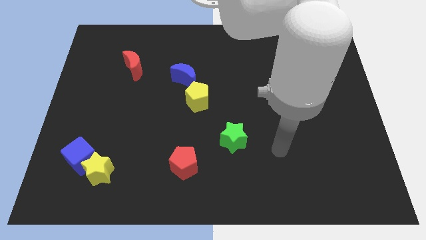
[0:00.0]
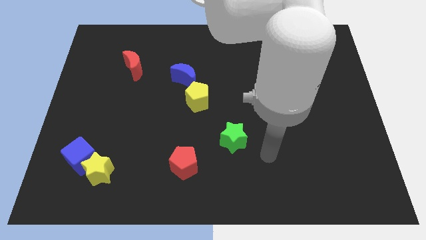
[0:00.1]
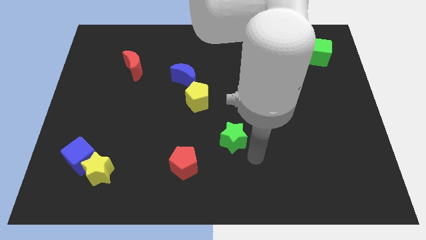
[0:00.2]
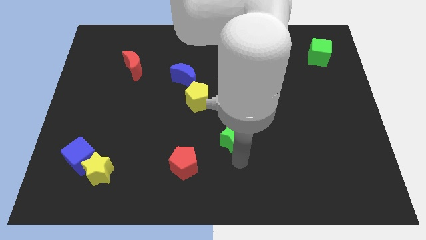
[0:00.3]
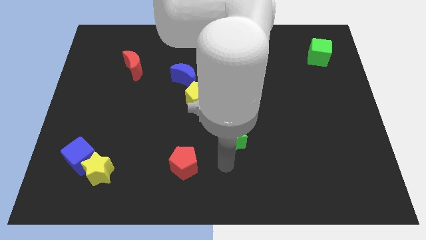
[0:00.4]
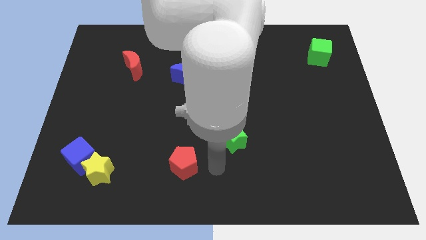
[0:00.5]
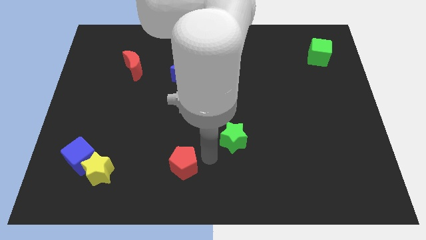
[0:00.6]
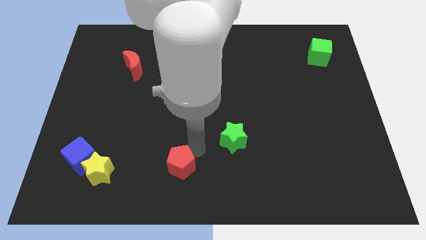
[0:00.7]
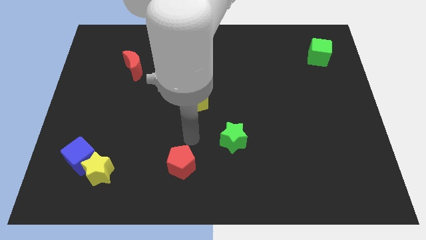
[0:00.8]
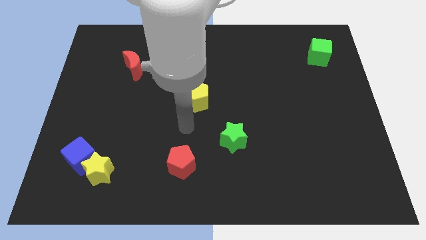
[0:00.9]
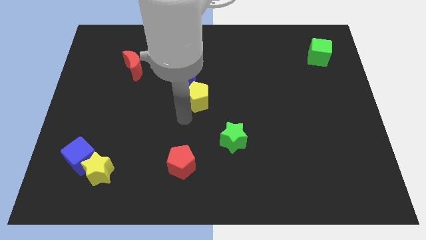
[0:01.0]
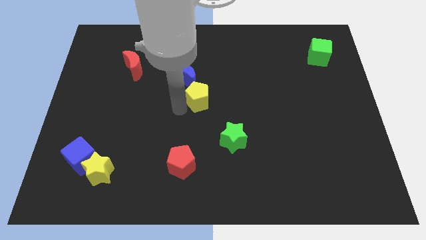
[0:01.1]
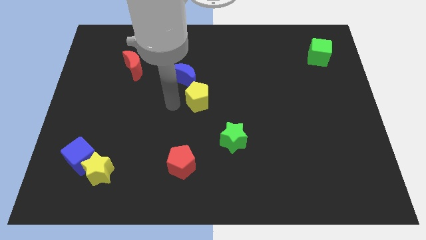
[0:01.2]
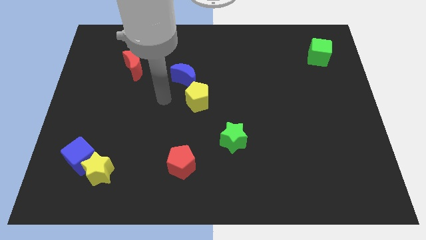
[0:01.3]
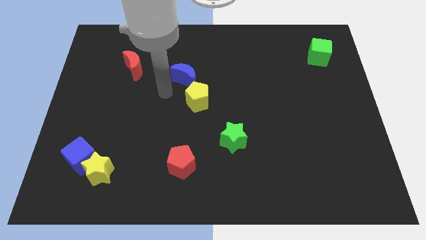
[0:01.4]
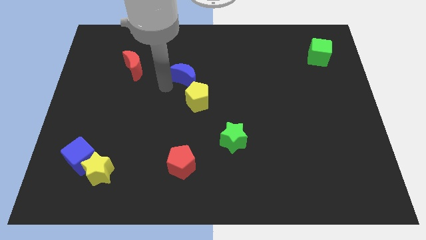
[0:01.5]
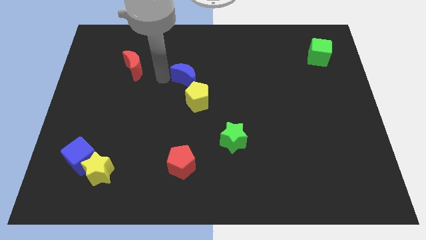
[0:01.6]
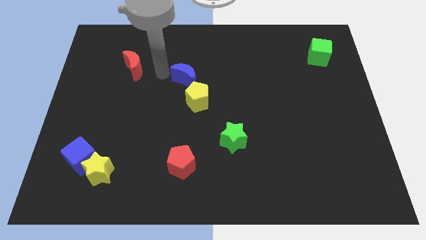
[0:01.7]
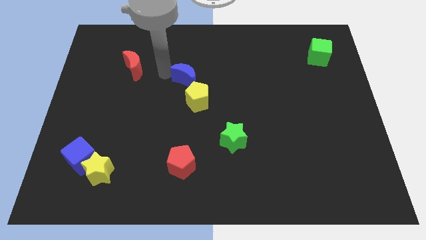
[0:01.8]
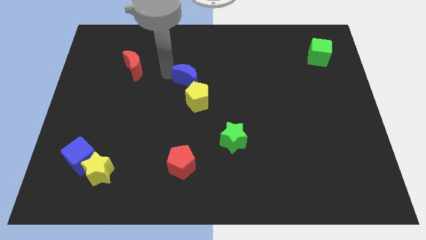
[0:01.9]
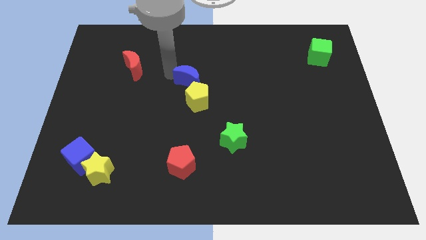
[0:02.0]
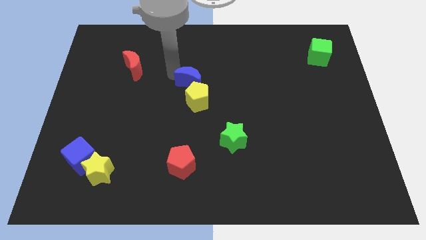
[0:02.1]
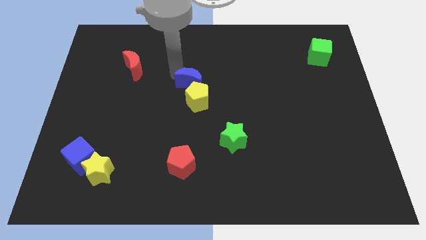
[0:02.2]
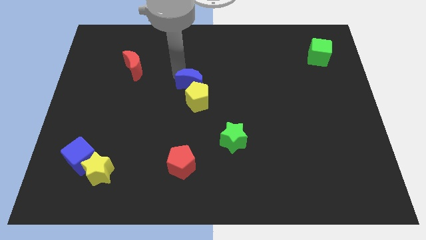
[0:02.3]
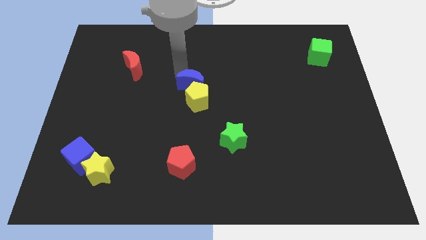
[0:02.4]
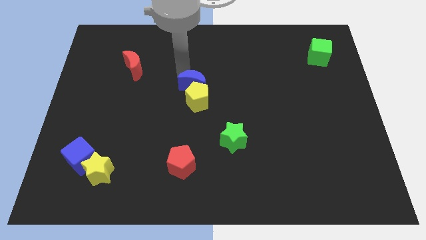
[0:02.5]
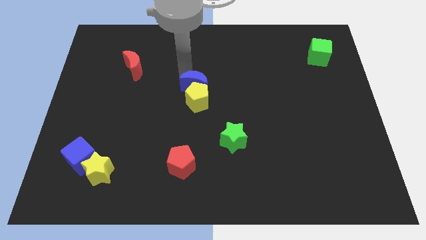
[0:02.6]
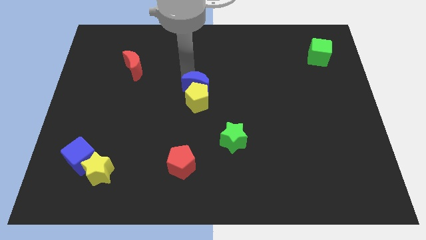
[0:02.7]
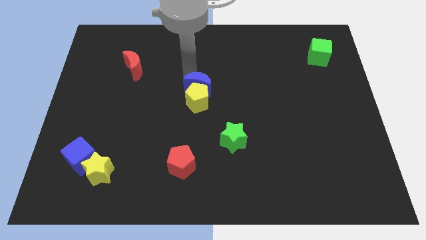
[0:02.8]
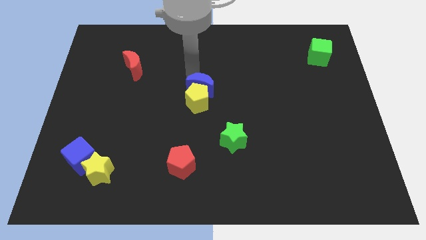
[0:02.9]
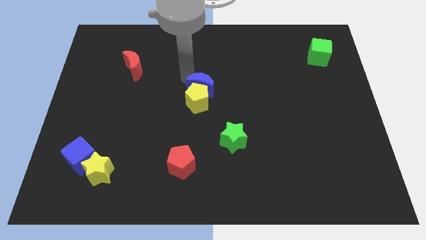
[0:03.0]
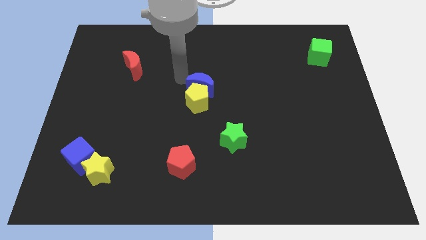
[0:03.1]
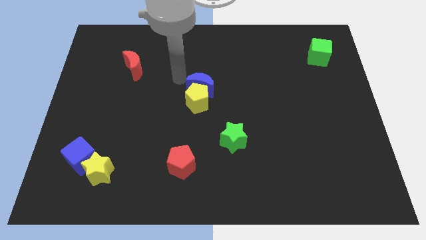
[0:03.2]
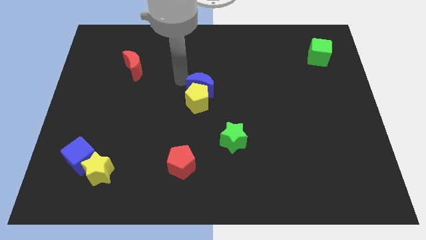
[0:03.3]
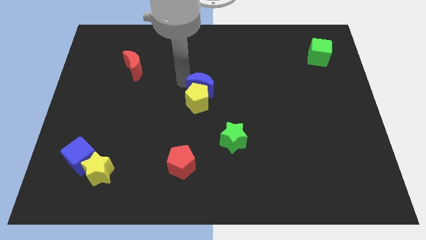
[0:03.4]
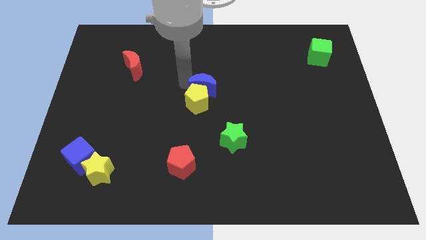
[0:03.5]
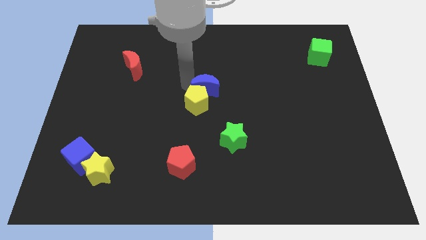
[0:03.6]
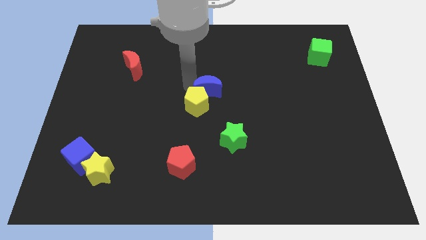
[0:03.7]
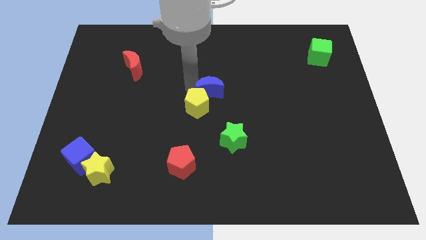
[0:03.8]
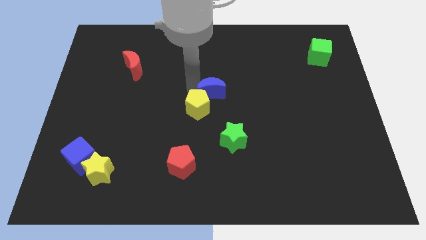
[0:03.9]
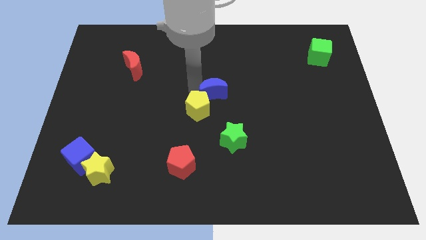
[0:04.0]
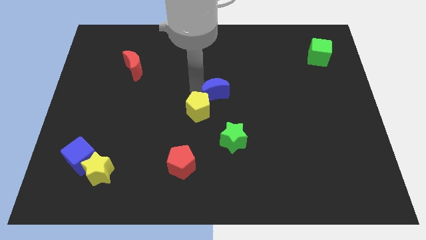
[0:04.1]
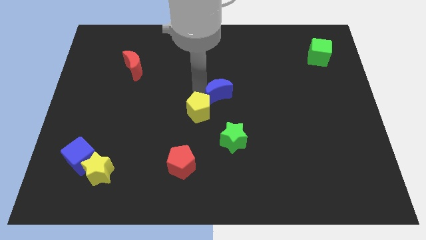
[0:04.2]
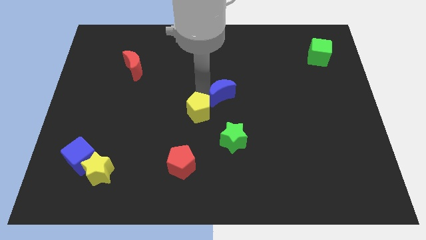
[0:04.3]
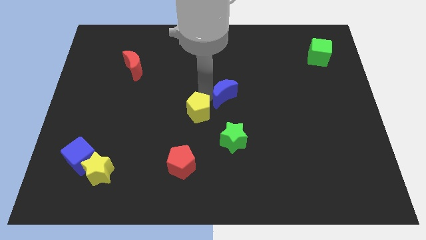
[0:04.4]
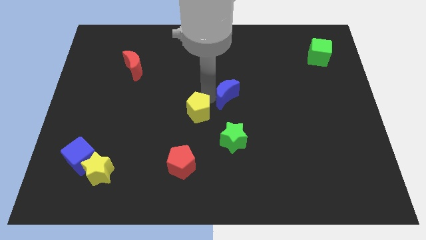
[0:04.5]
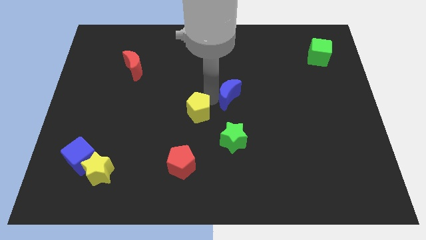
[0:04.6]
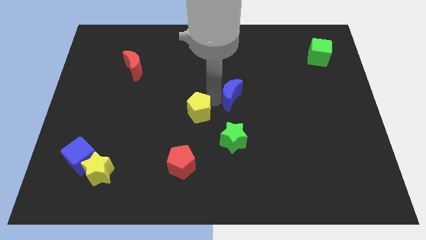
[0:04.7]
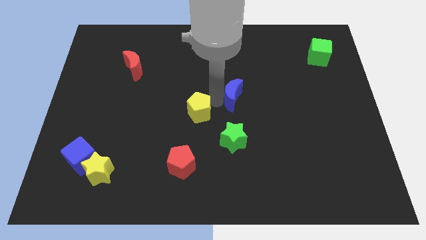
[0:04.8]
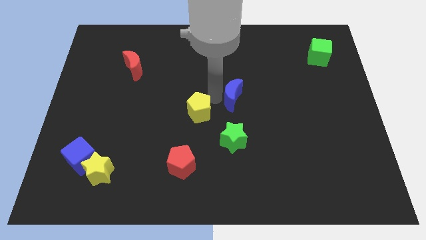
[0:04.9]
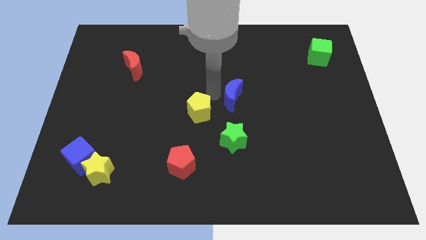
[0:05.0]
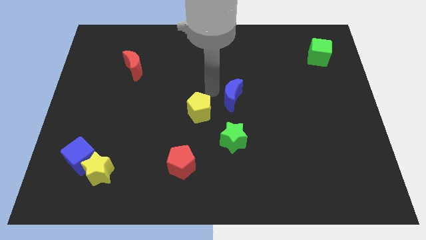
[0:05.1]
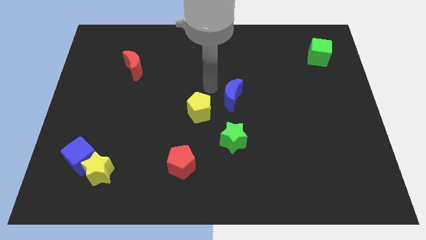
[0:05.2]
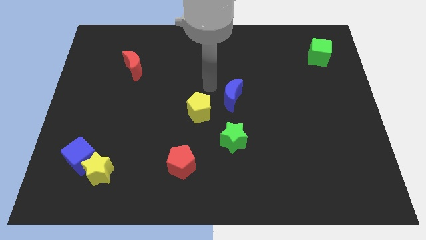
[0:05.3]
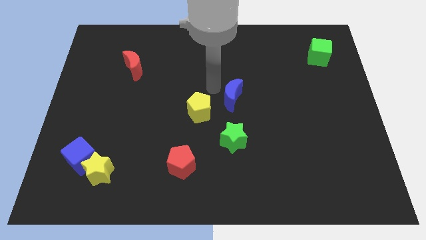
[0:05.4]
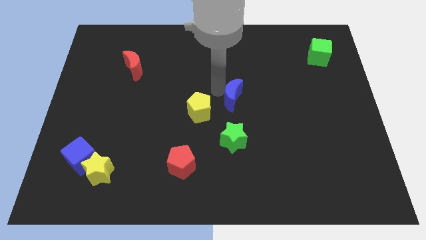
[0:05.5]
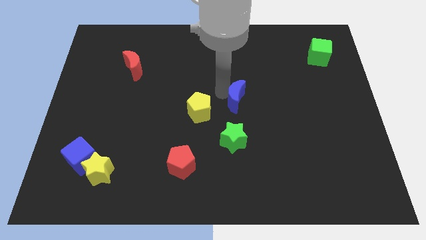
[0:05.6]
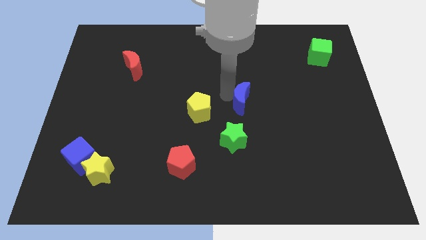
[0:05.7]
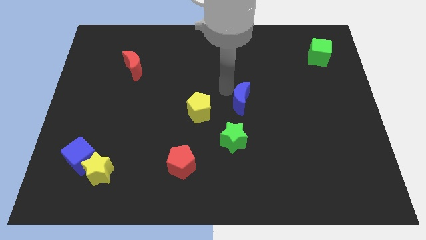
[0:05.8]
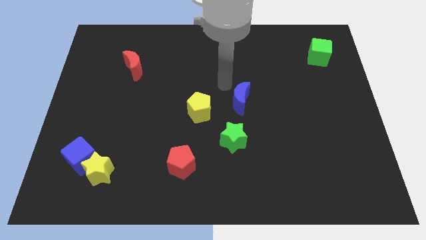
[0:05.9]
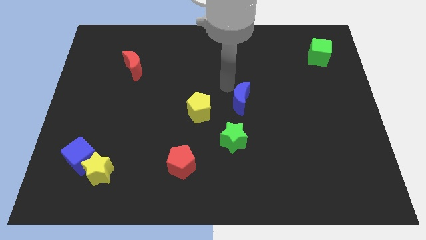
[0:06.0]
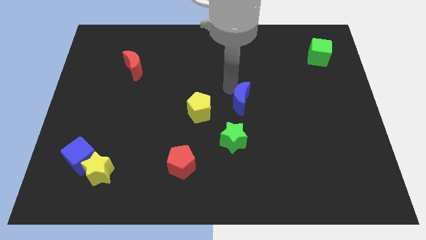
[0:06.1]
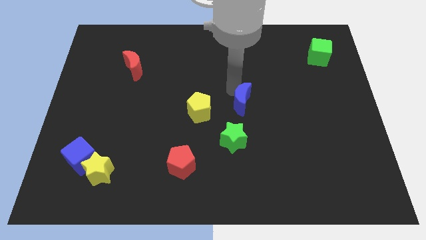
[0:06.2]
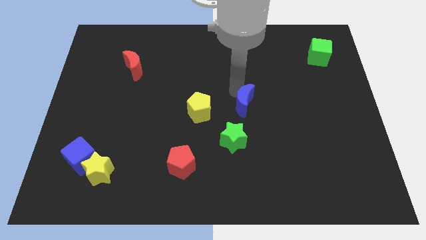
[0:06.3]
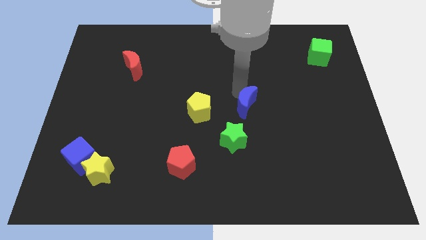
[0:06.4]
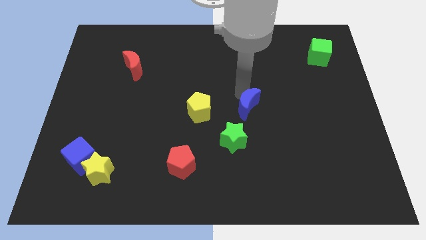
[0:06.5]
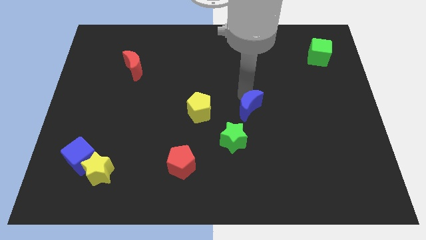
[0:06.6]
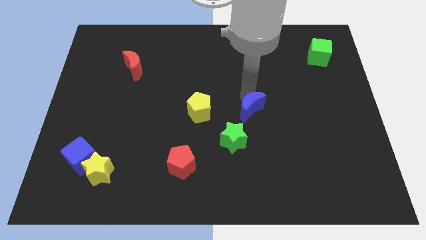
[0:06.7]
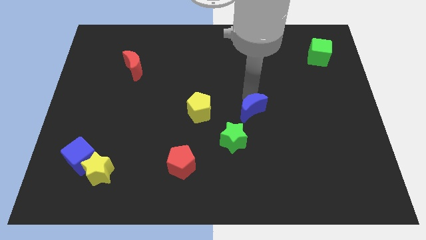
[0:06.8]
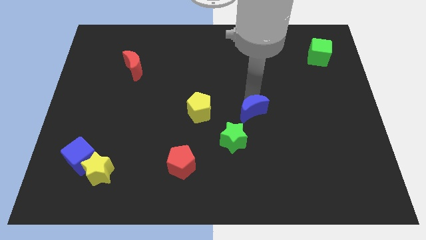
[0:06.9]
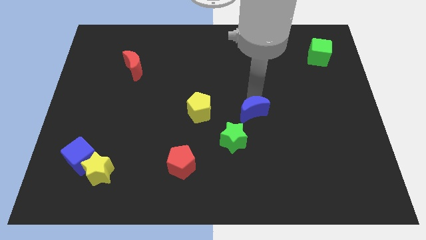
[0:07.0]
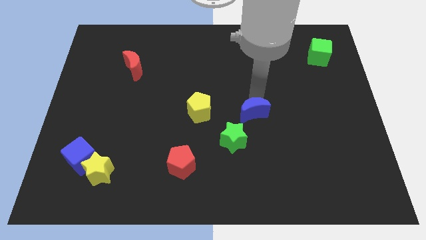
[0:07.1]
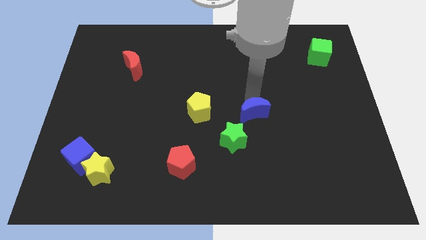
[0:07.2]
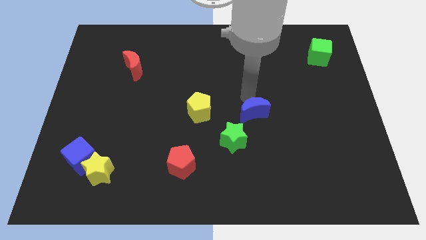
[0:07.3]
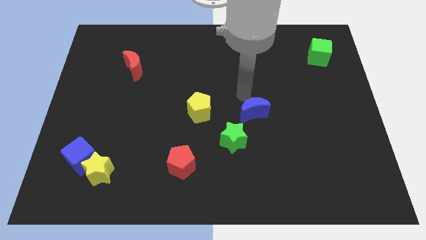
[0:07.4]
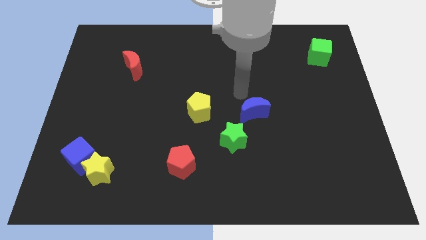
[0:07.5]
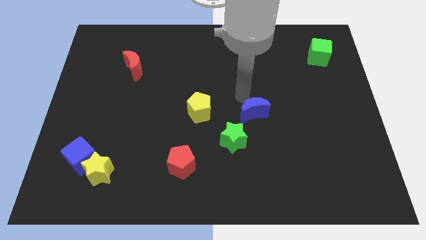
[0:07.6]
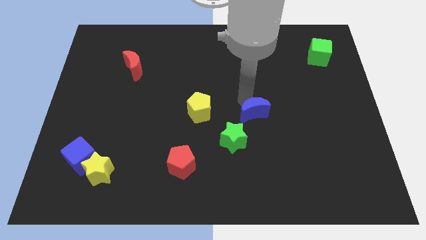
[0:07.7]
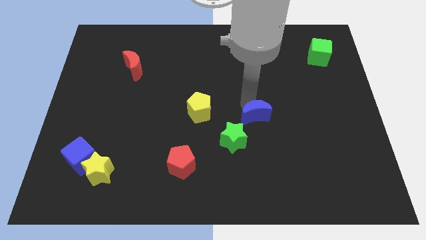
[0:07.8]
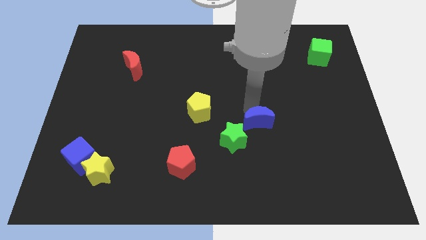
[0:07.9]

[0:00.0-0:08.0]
slide the blue moon downwards and right diagonally

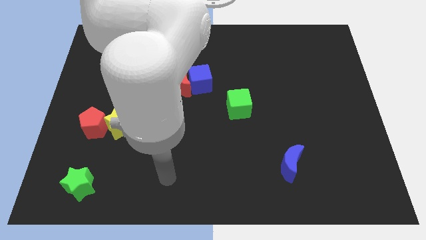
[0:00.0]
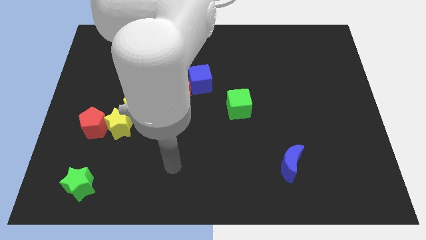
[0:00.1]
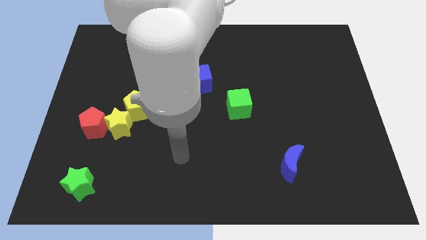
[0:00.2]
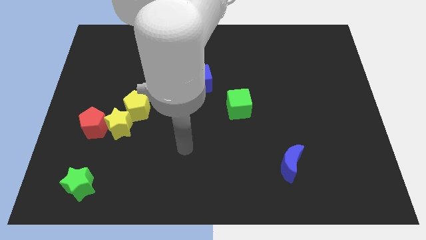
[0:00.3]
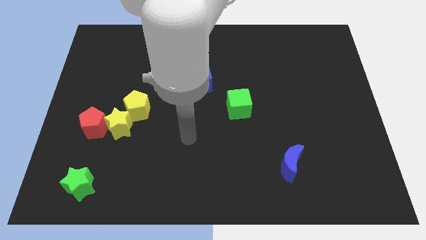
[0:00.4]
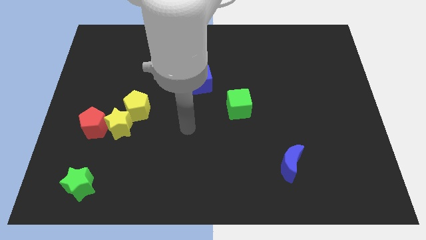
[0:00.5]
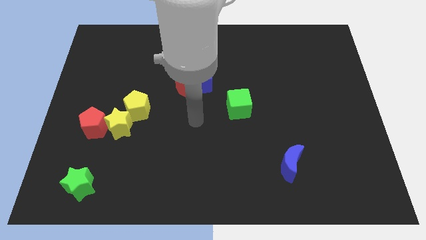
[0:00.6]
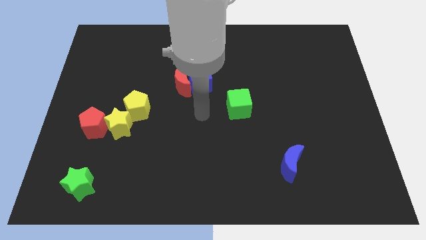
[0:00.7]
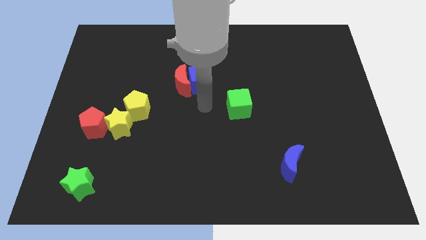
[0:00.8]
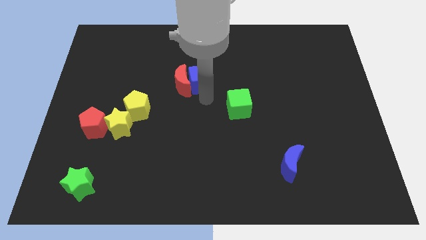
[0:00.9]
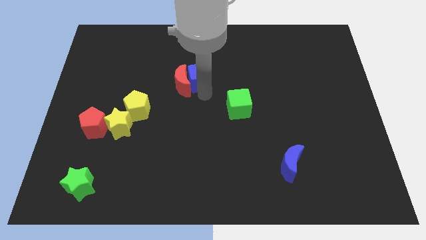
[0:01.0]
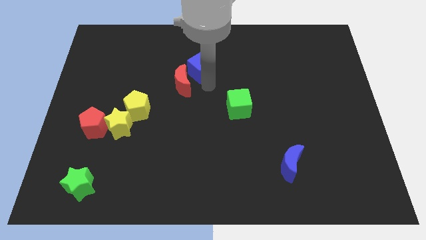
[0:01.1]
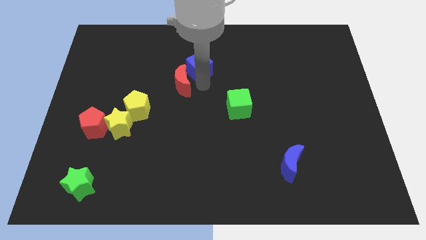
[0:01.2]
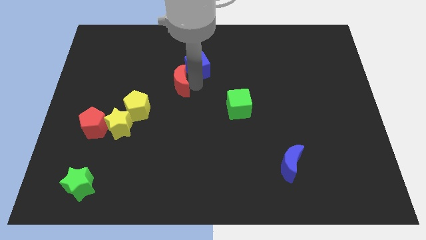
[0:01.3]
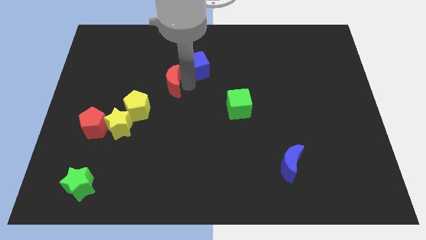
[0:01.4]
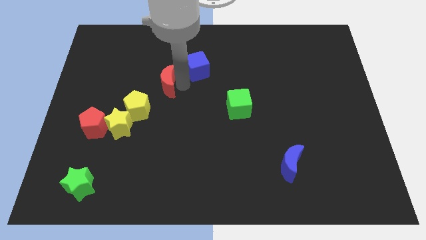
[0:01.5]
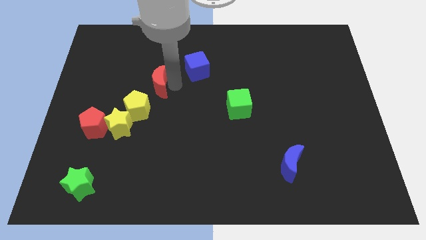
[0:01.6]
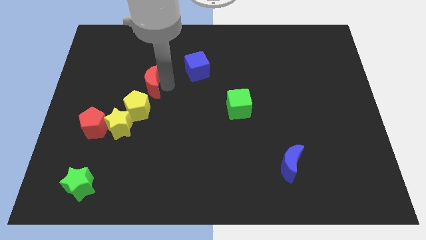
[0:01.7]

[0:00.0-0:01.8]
slightly move the red moon to the left
